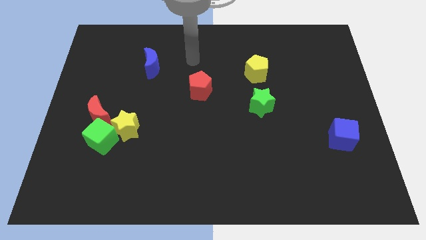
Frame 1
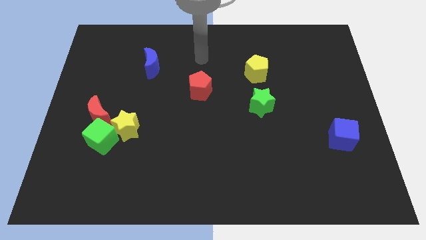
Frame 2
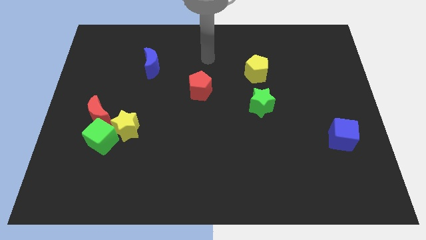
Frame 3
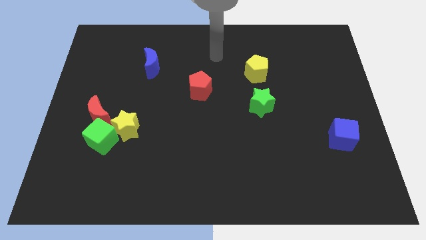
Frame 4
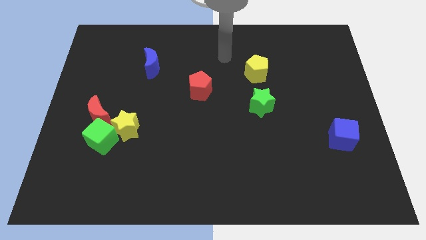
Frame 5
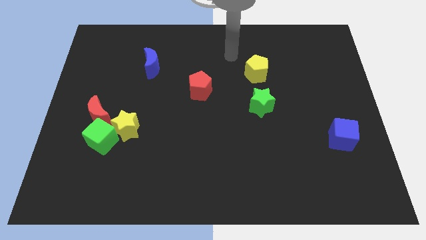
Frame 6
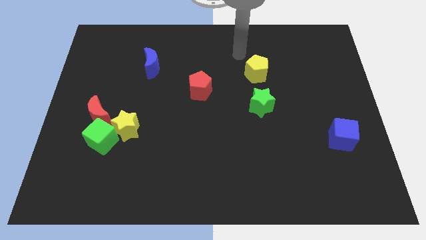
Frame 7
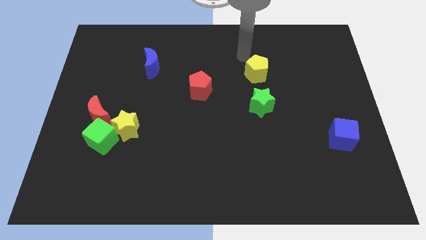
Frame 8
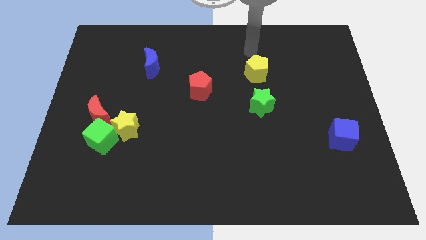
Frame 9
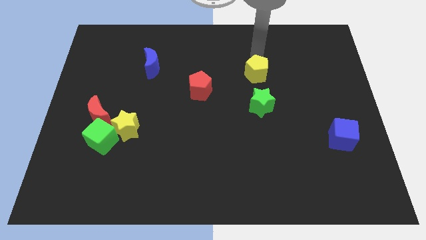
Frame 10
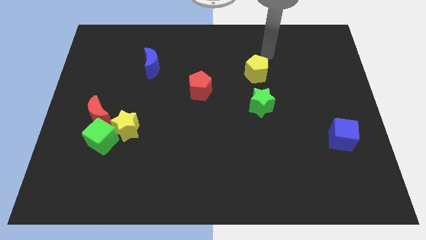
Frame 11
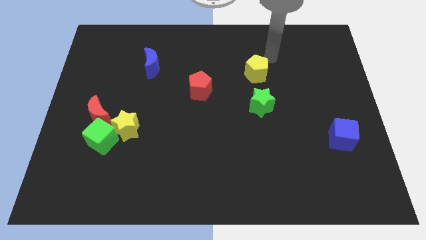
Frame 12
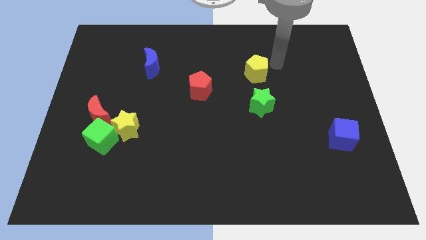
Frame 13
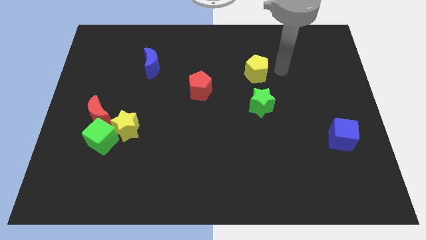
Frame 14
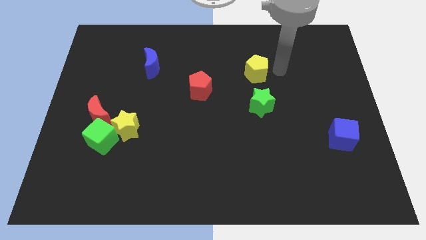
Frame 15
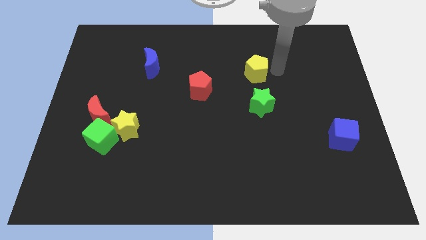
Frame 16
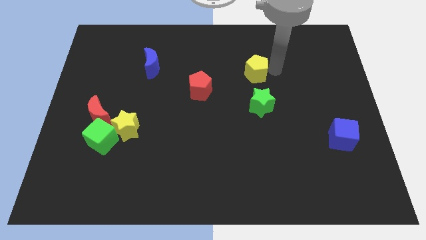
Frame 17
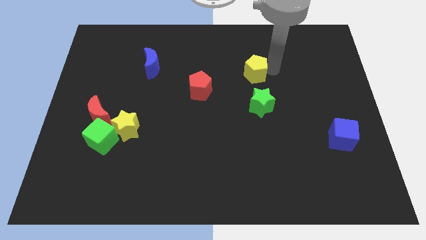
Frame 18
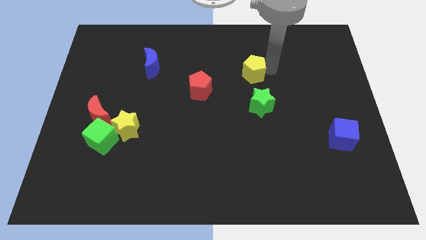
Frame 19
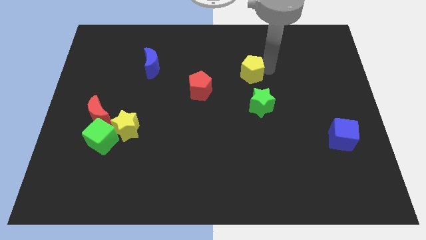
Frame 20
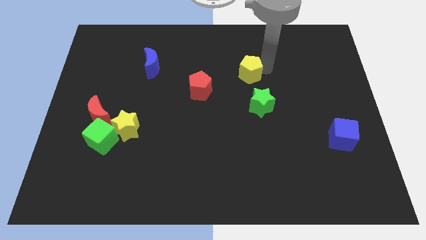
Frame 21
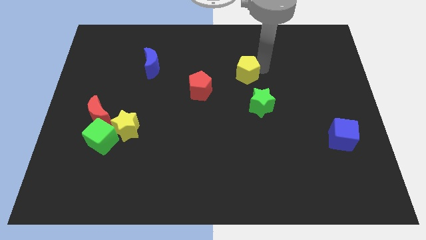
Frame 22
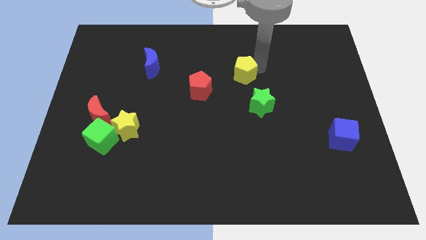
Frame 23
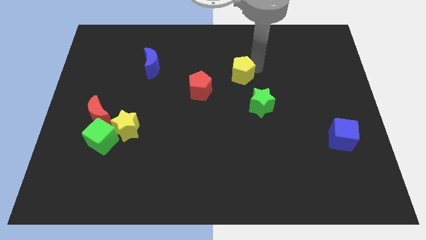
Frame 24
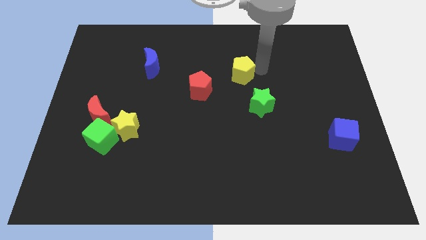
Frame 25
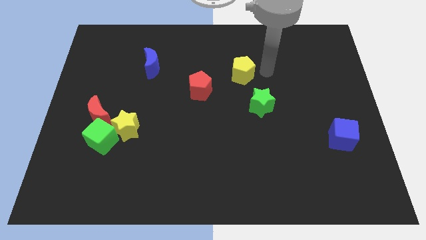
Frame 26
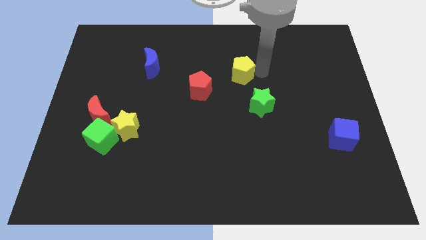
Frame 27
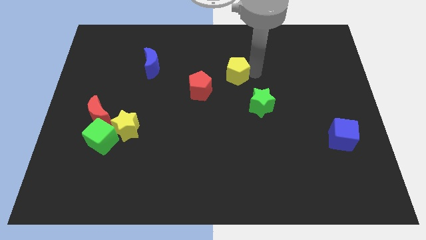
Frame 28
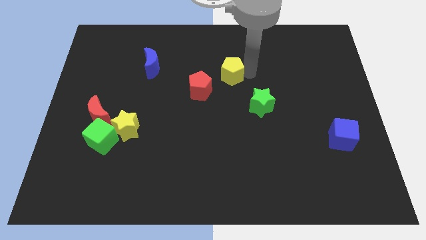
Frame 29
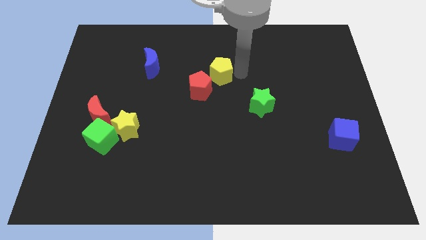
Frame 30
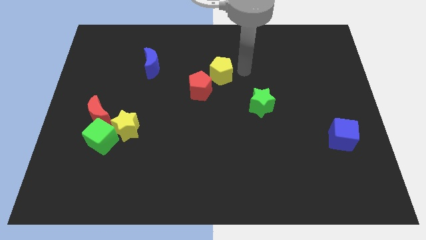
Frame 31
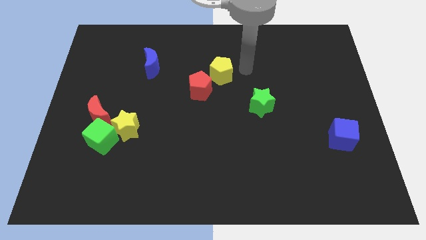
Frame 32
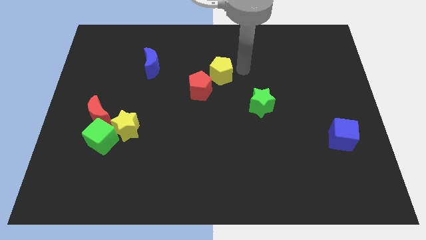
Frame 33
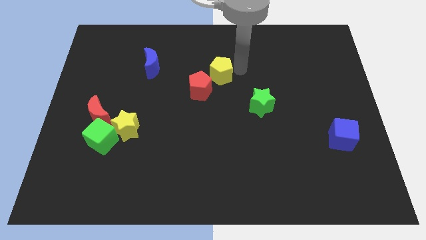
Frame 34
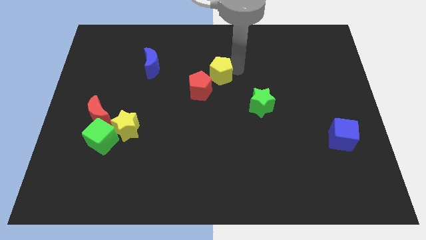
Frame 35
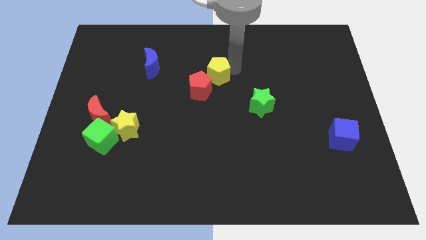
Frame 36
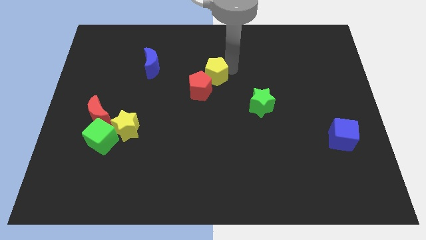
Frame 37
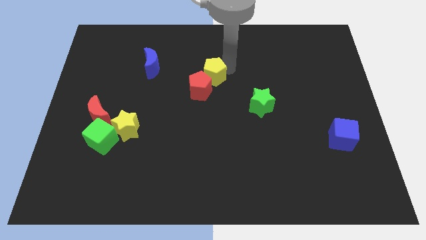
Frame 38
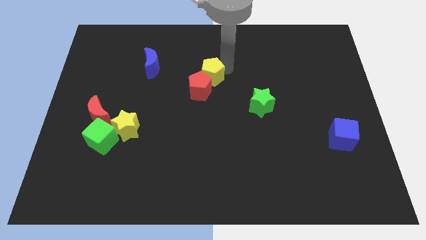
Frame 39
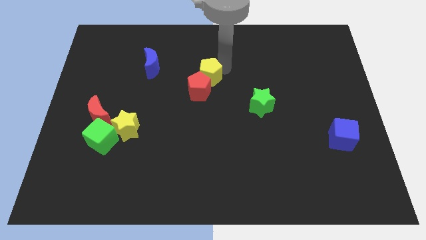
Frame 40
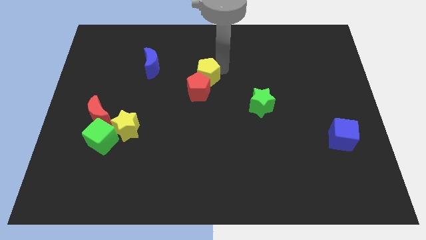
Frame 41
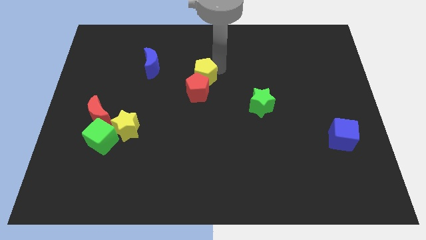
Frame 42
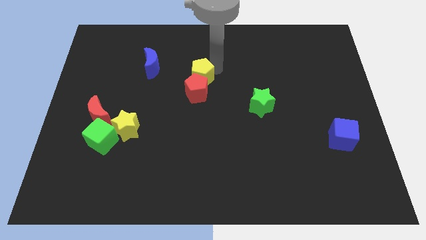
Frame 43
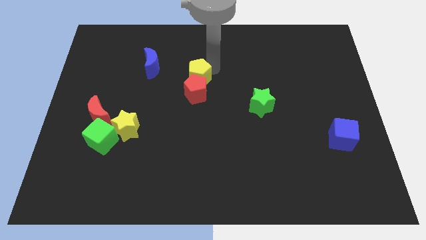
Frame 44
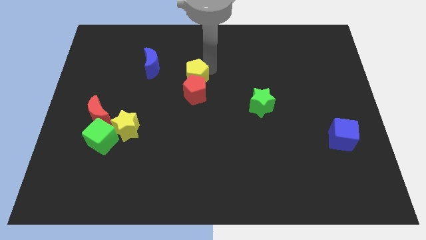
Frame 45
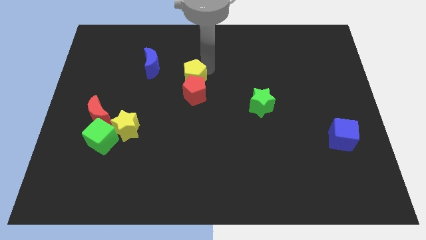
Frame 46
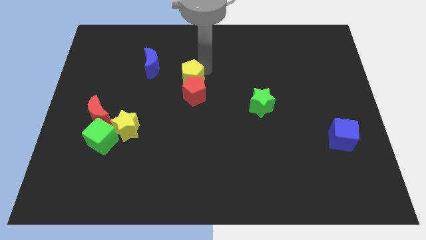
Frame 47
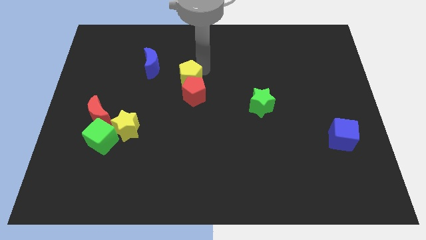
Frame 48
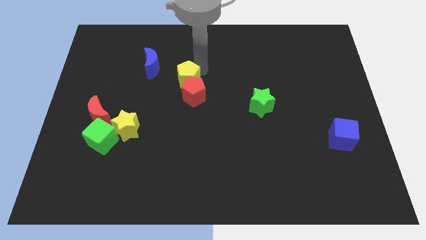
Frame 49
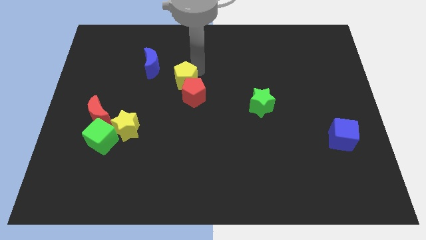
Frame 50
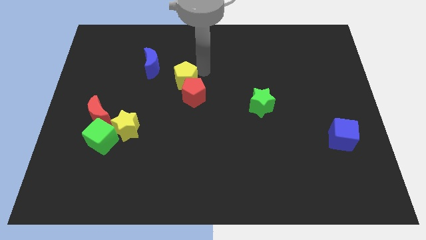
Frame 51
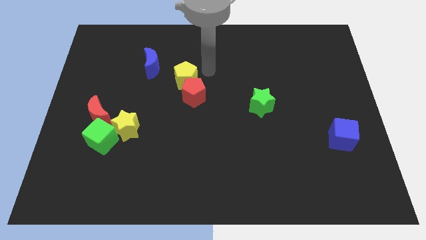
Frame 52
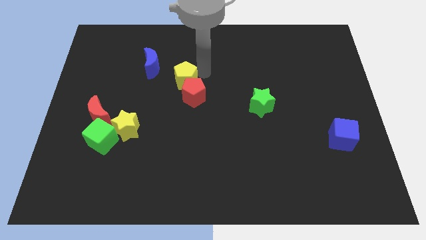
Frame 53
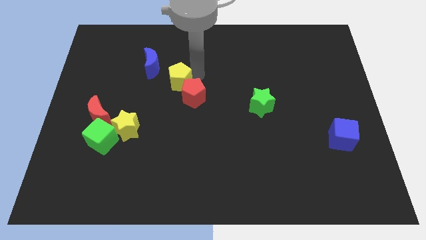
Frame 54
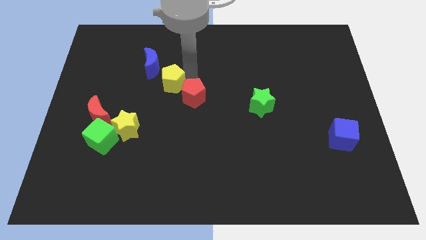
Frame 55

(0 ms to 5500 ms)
slide the yellow pentagon to the left

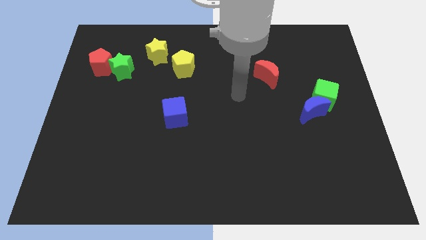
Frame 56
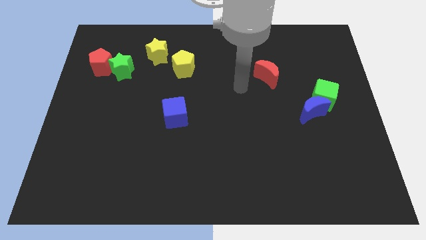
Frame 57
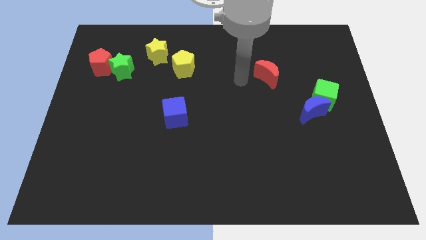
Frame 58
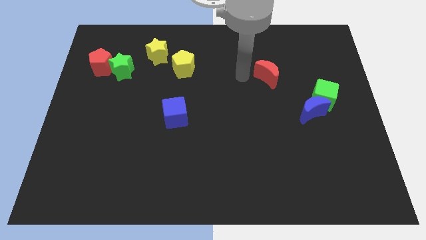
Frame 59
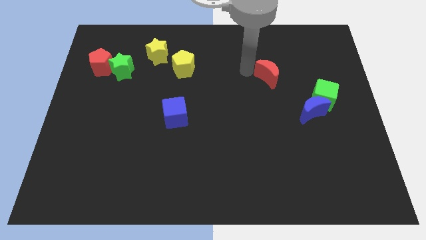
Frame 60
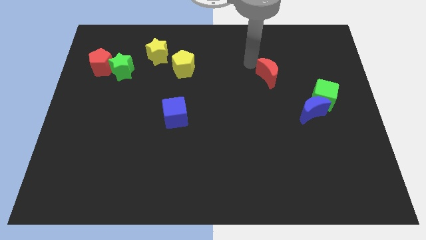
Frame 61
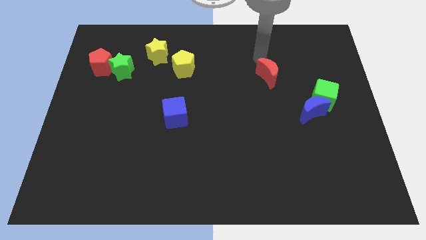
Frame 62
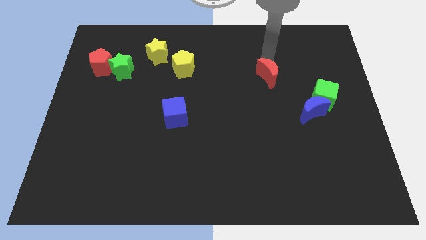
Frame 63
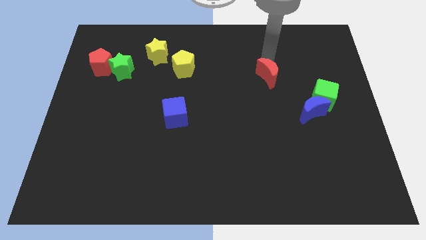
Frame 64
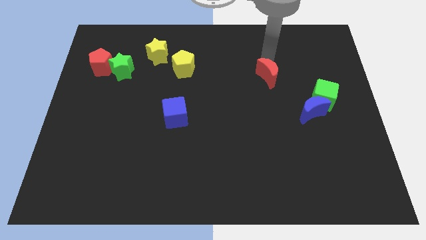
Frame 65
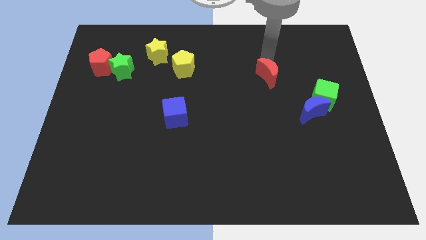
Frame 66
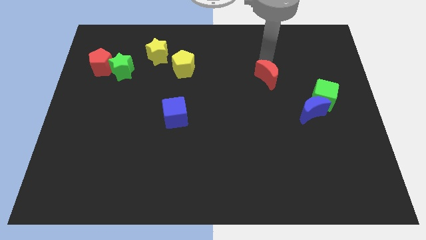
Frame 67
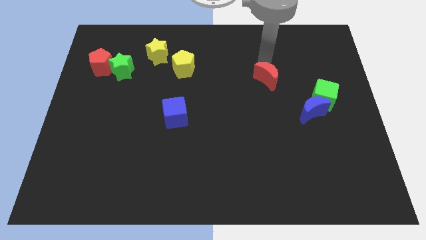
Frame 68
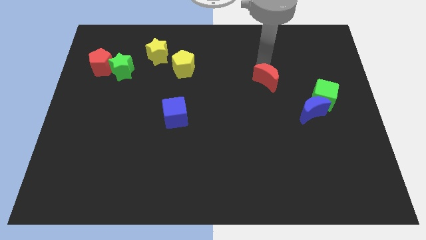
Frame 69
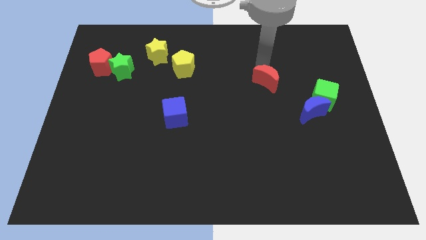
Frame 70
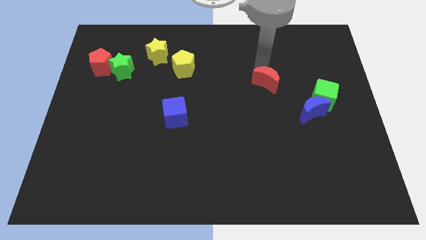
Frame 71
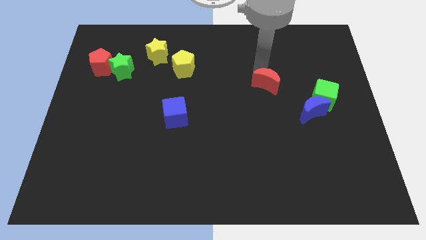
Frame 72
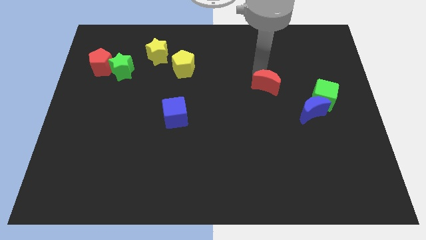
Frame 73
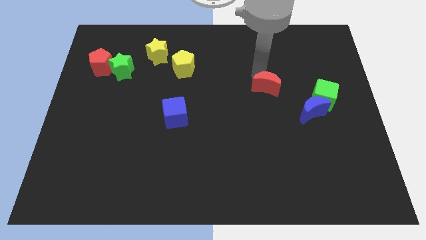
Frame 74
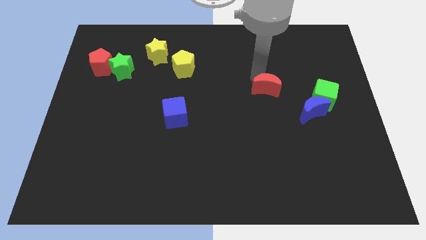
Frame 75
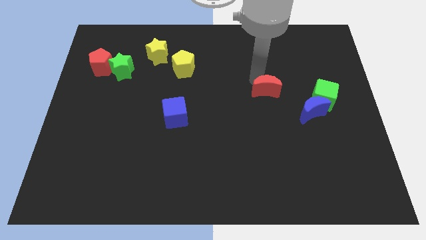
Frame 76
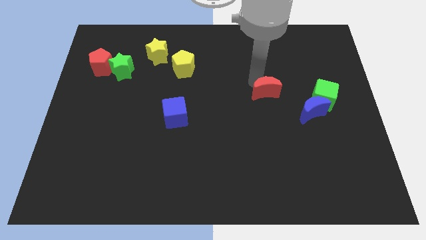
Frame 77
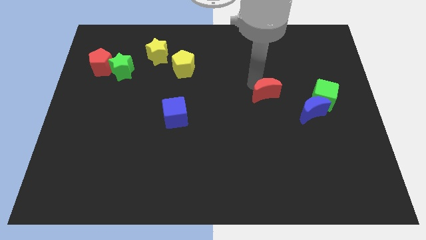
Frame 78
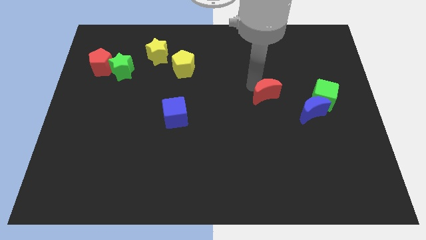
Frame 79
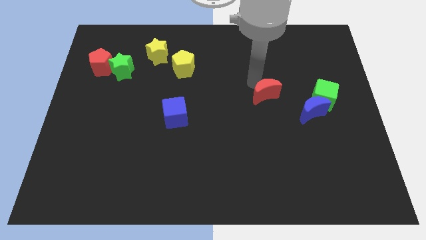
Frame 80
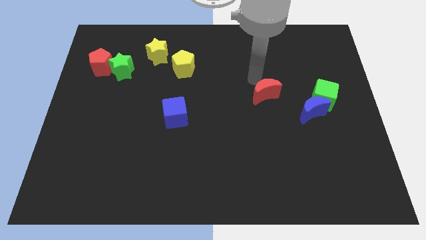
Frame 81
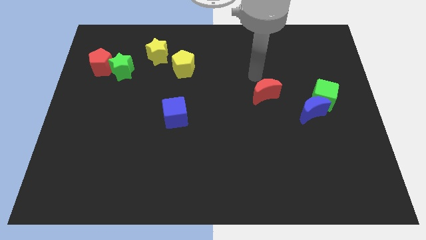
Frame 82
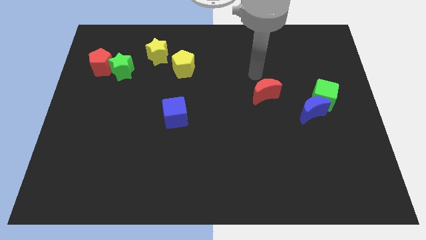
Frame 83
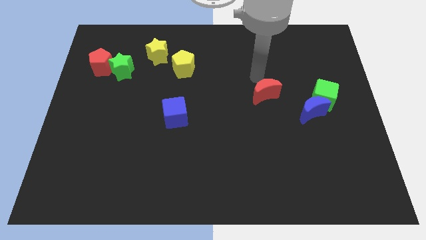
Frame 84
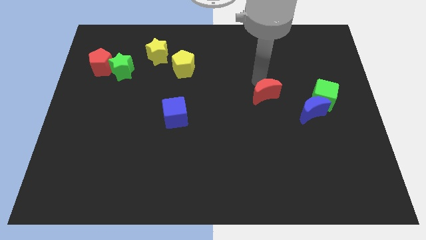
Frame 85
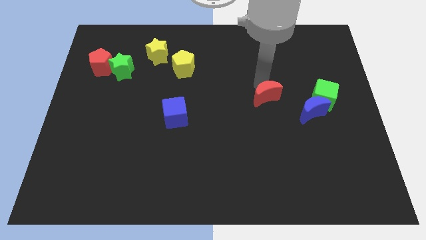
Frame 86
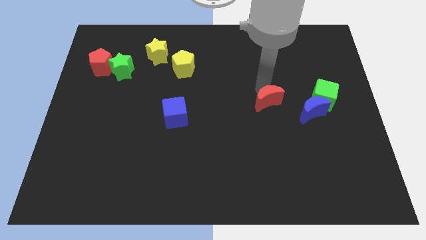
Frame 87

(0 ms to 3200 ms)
slightly push the red moon down
